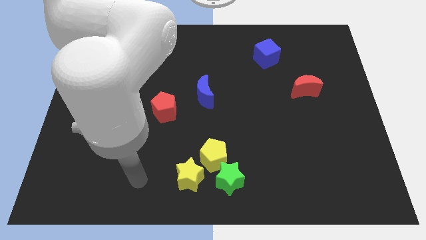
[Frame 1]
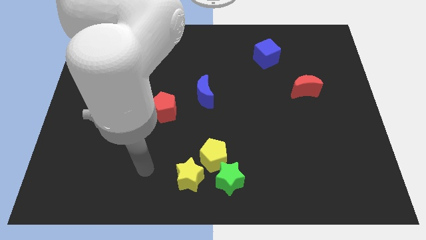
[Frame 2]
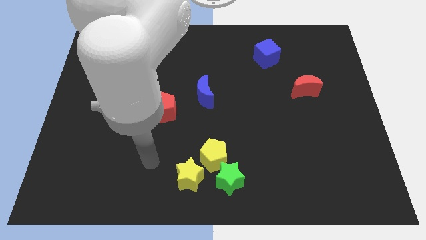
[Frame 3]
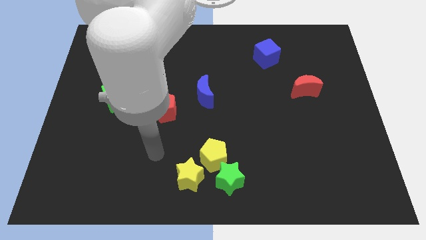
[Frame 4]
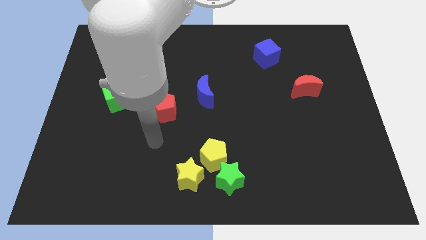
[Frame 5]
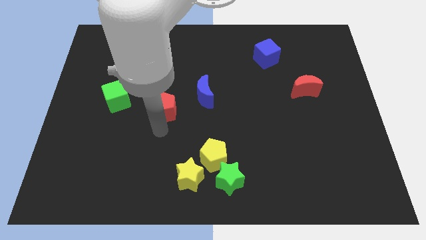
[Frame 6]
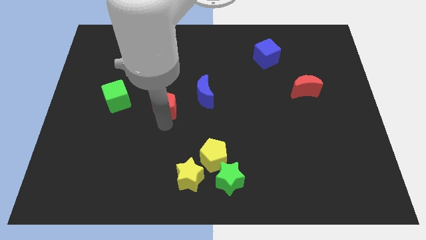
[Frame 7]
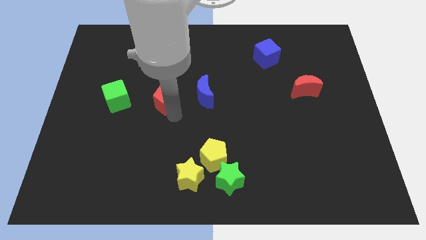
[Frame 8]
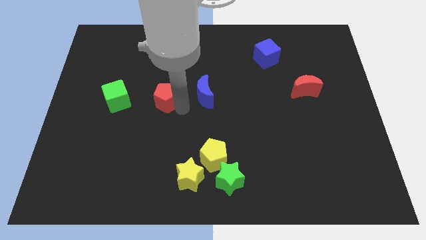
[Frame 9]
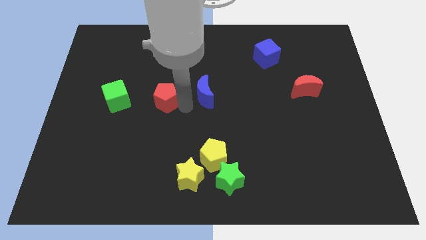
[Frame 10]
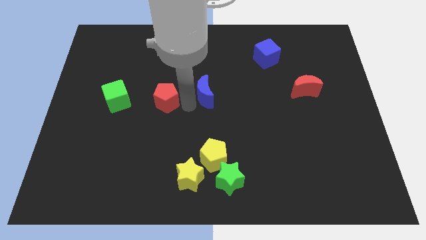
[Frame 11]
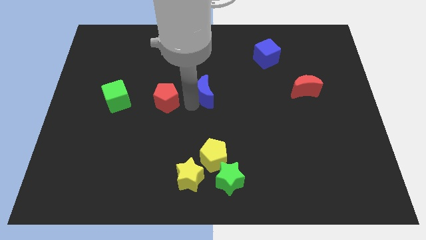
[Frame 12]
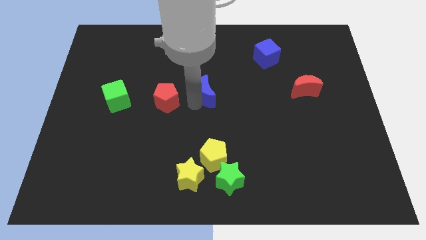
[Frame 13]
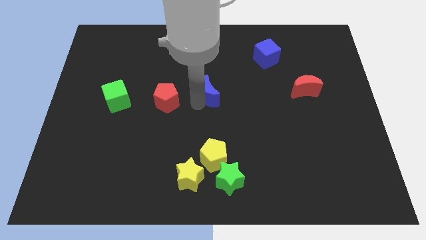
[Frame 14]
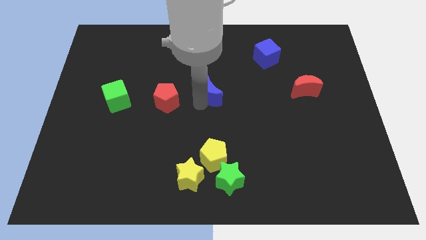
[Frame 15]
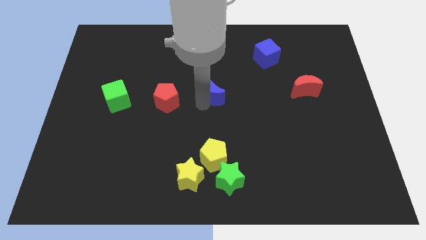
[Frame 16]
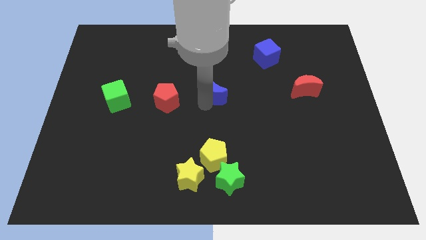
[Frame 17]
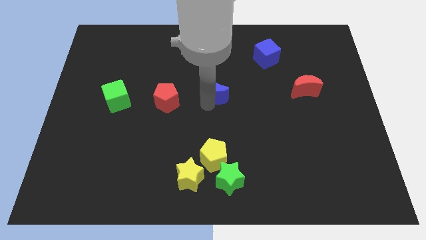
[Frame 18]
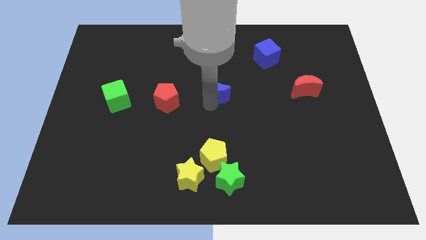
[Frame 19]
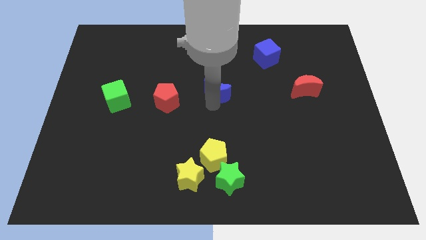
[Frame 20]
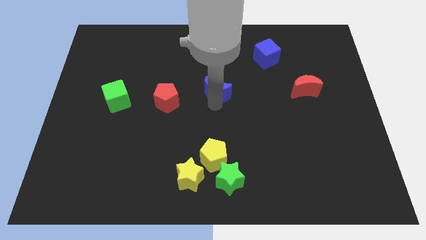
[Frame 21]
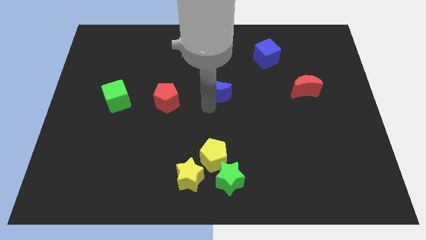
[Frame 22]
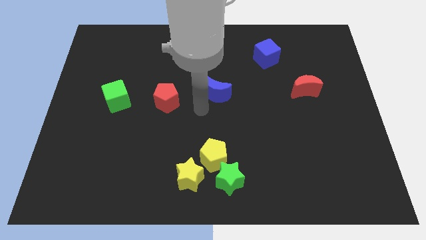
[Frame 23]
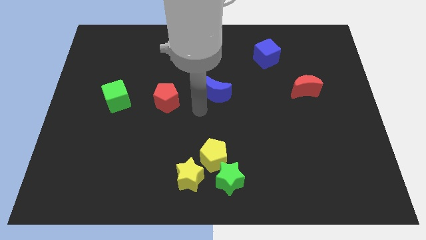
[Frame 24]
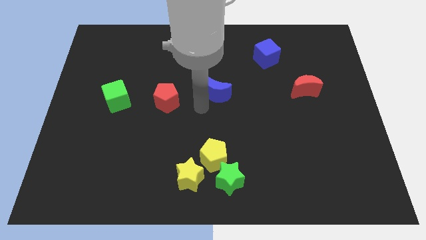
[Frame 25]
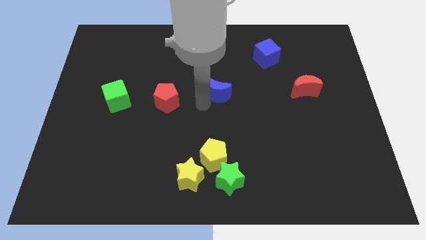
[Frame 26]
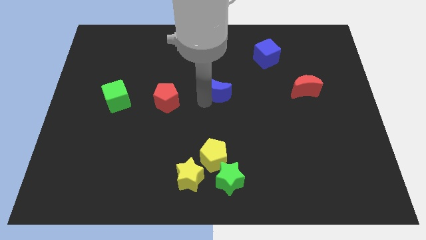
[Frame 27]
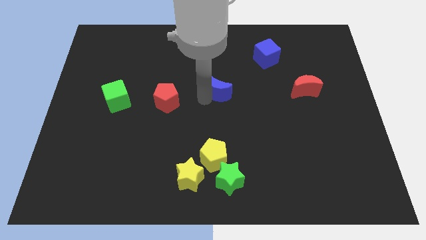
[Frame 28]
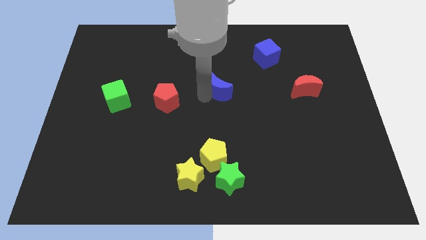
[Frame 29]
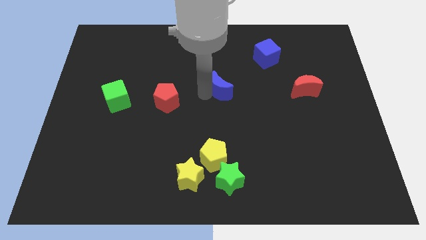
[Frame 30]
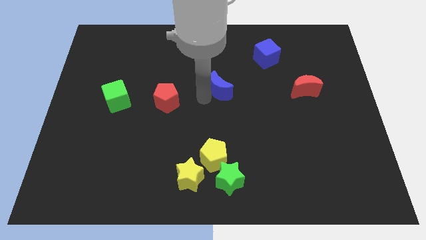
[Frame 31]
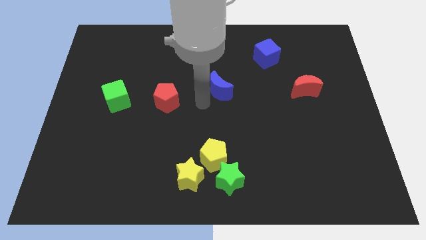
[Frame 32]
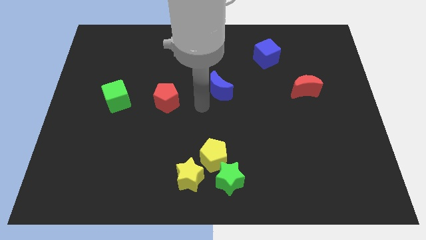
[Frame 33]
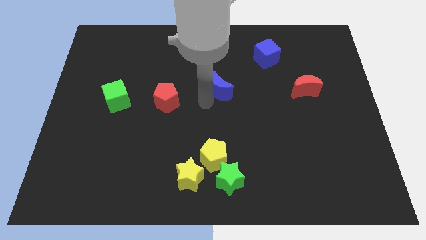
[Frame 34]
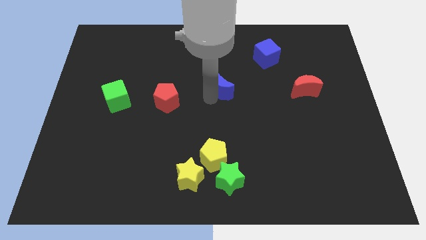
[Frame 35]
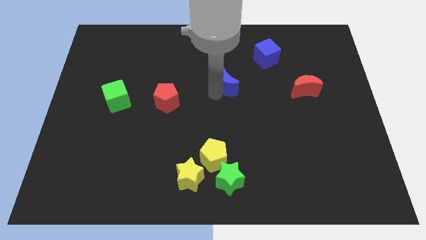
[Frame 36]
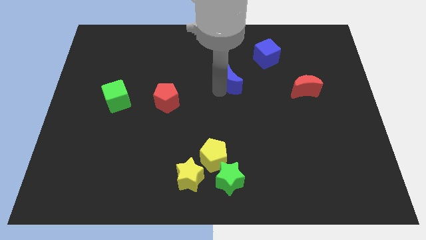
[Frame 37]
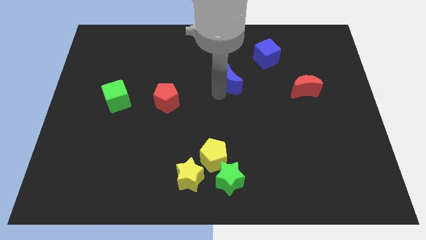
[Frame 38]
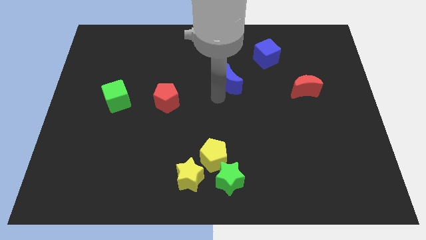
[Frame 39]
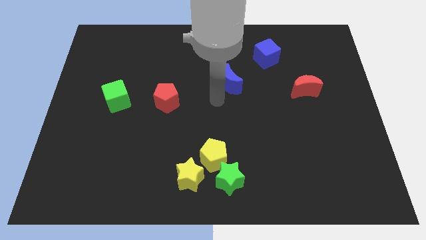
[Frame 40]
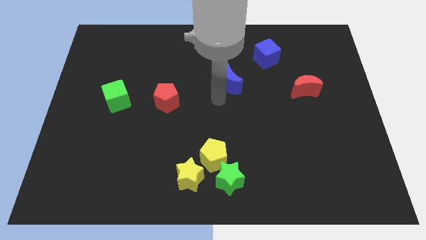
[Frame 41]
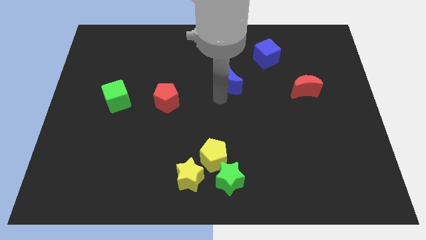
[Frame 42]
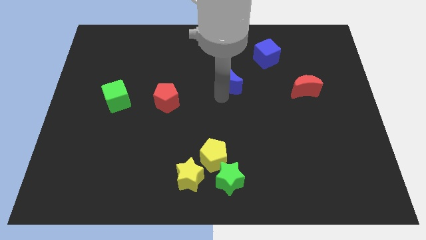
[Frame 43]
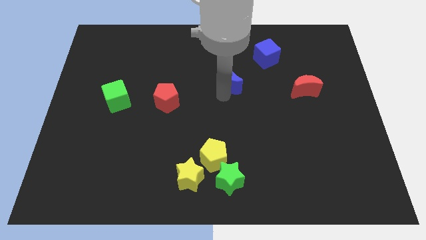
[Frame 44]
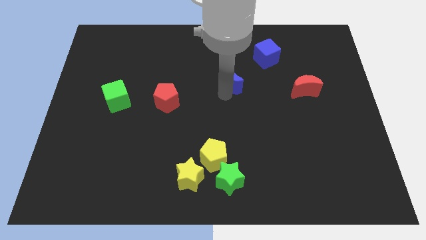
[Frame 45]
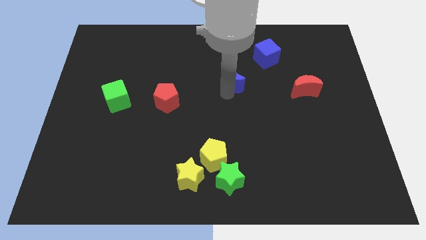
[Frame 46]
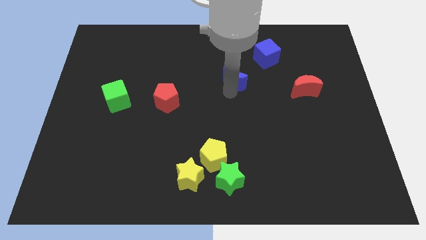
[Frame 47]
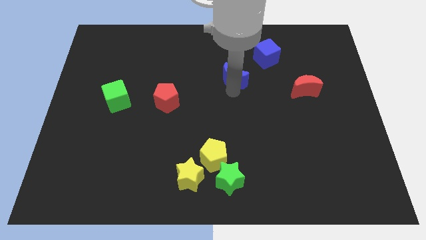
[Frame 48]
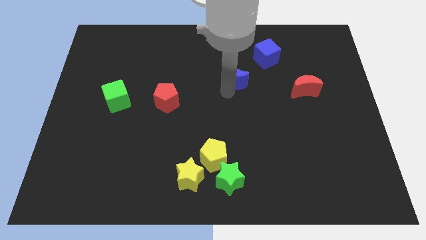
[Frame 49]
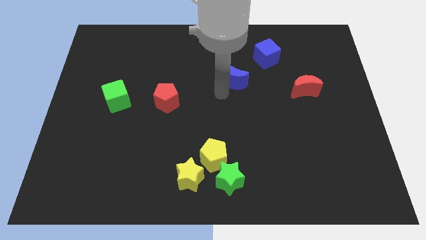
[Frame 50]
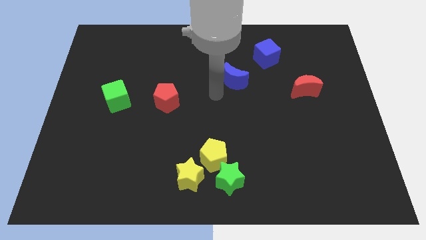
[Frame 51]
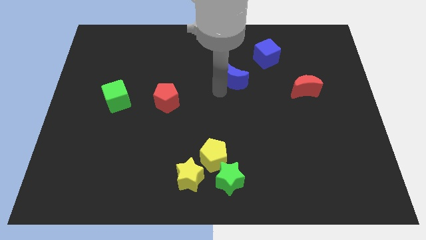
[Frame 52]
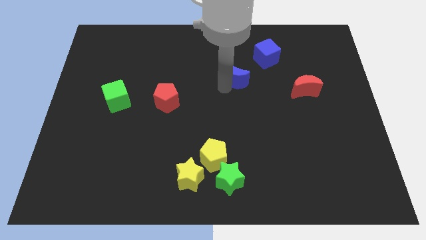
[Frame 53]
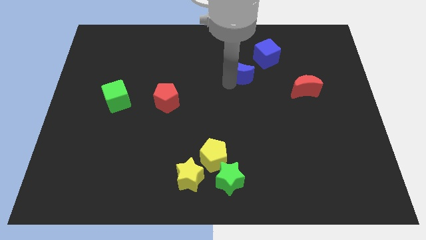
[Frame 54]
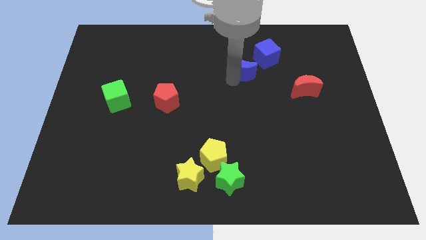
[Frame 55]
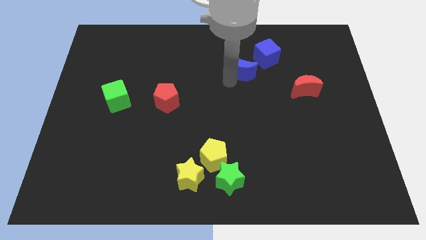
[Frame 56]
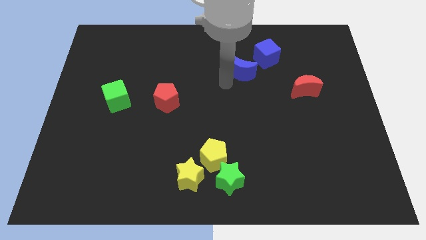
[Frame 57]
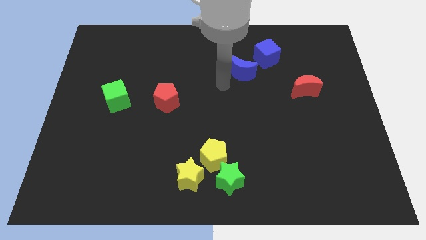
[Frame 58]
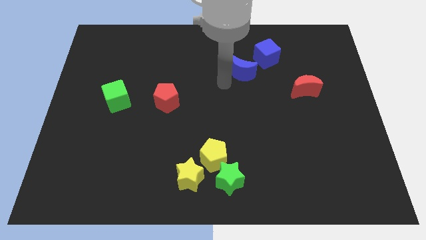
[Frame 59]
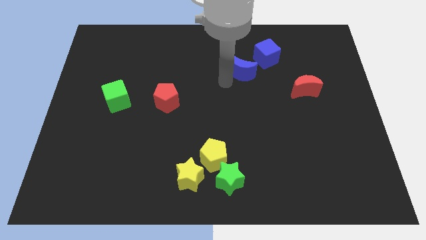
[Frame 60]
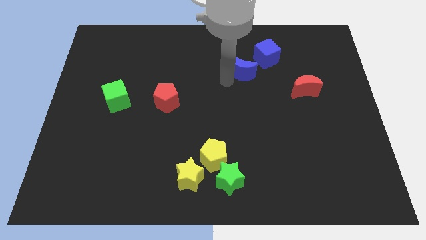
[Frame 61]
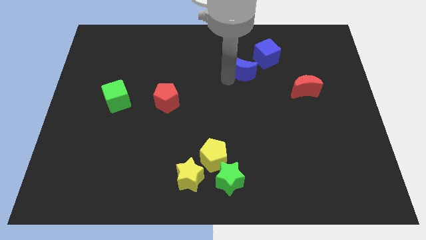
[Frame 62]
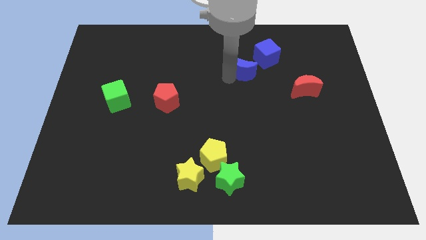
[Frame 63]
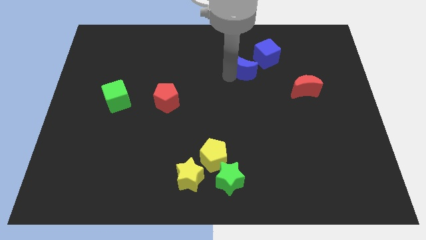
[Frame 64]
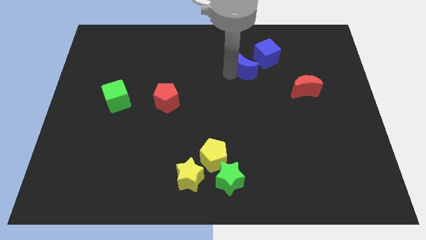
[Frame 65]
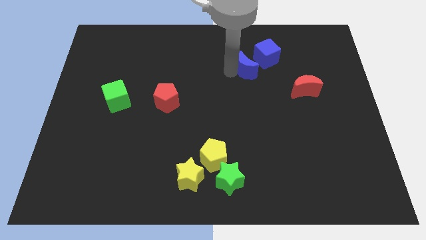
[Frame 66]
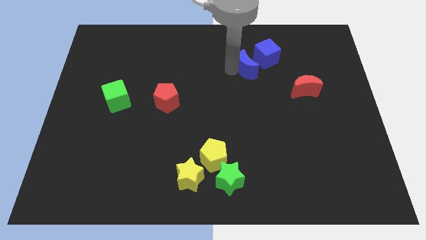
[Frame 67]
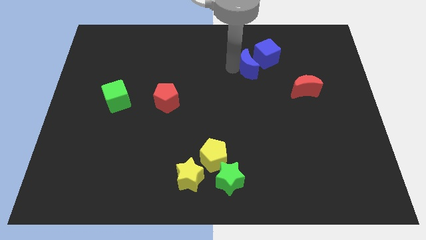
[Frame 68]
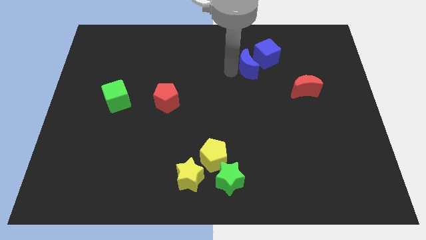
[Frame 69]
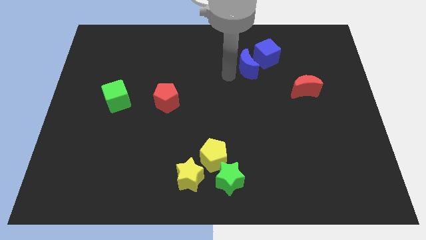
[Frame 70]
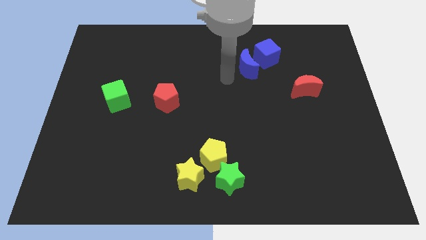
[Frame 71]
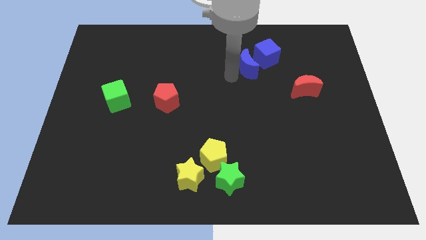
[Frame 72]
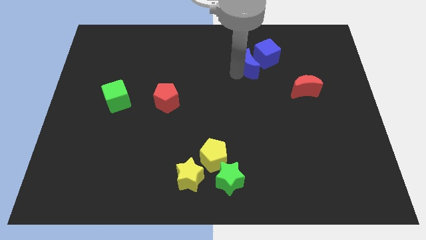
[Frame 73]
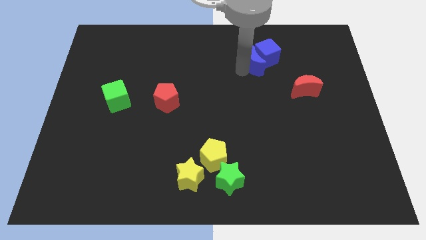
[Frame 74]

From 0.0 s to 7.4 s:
move the blue moon next to the blue cube
